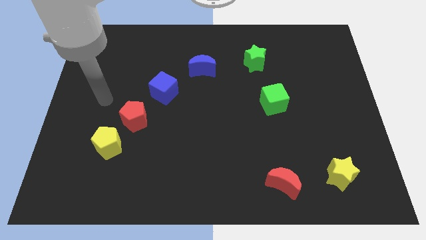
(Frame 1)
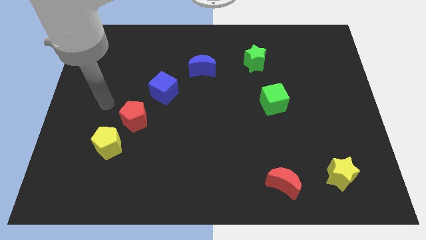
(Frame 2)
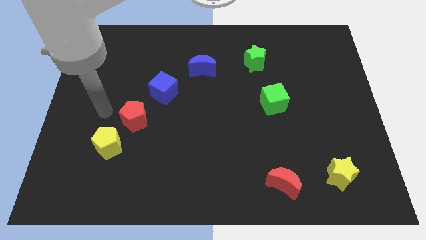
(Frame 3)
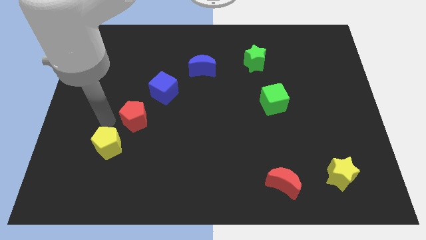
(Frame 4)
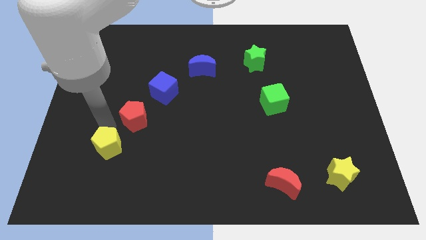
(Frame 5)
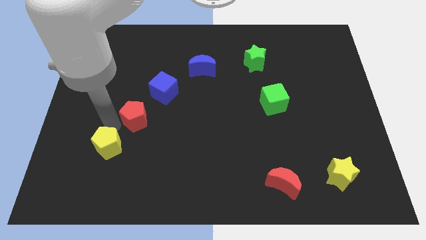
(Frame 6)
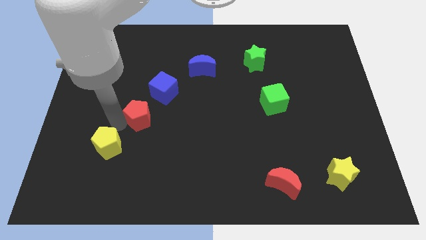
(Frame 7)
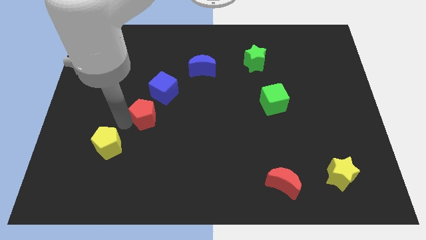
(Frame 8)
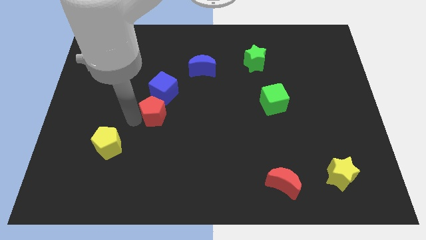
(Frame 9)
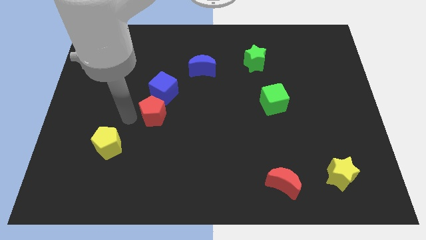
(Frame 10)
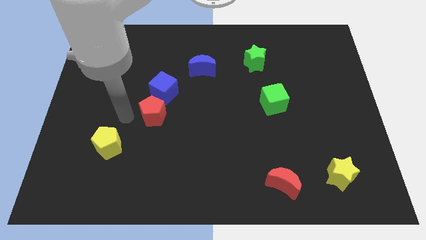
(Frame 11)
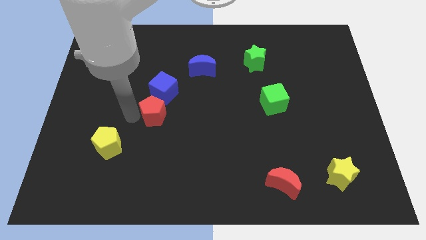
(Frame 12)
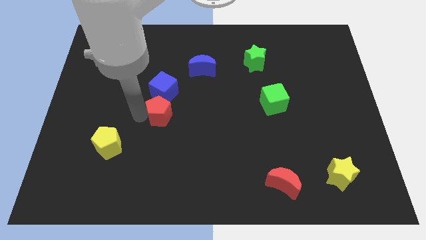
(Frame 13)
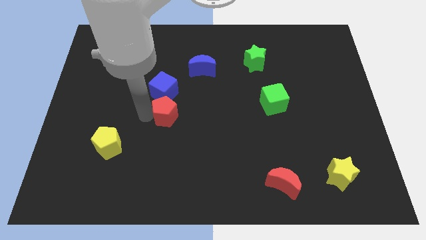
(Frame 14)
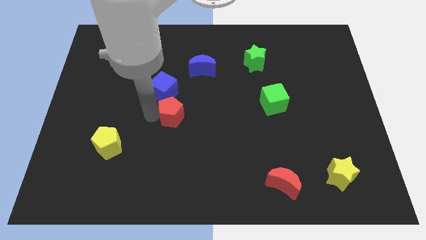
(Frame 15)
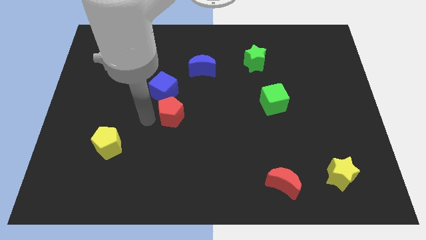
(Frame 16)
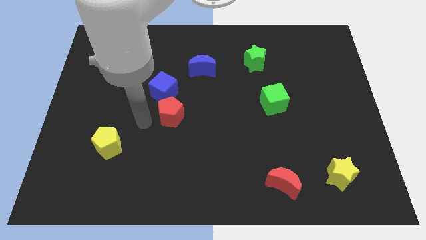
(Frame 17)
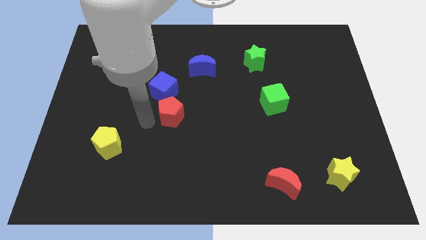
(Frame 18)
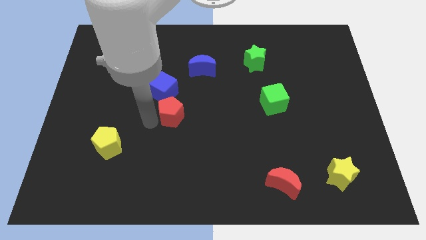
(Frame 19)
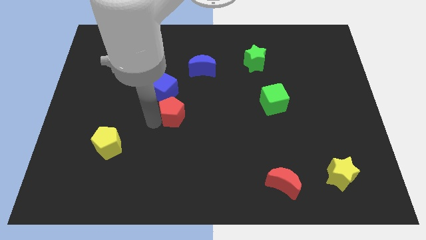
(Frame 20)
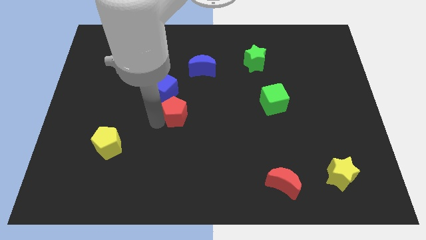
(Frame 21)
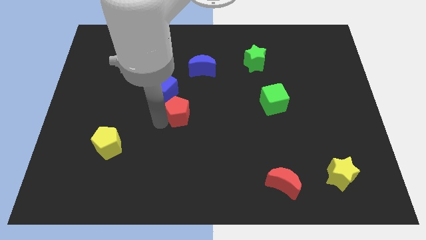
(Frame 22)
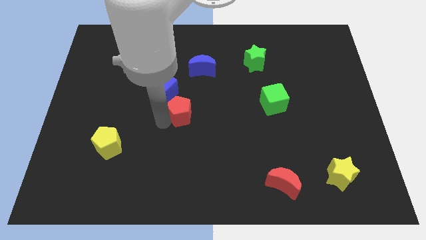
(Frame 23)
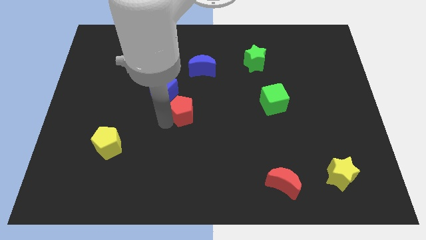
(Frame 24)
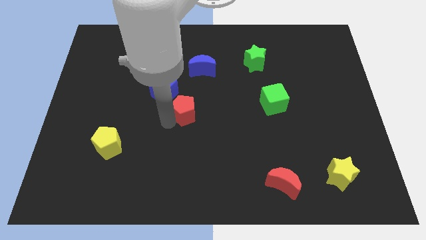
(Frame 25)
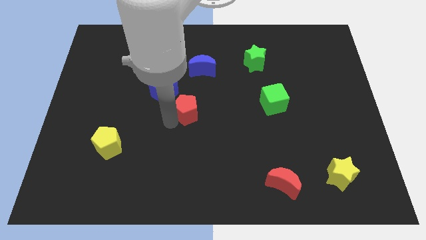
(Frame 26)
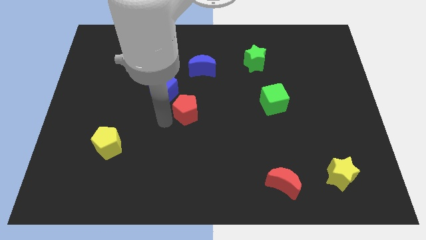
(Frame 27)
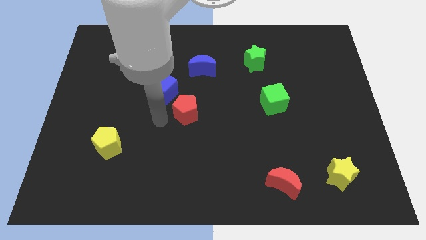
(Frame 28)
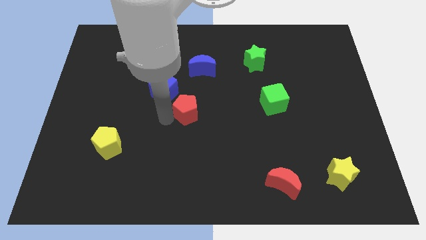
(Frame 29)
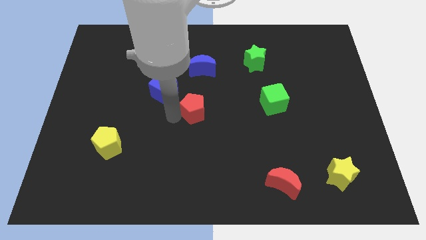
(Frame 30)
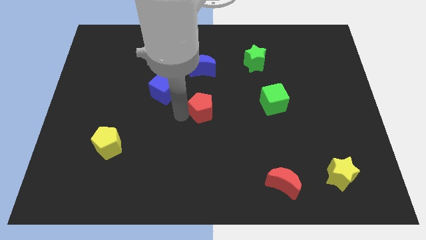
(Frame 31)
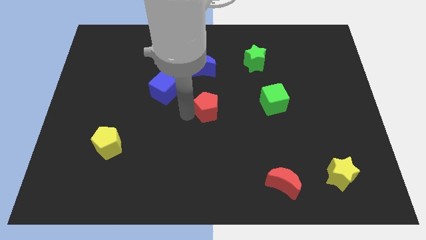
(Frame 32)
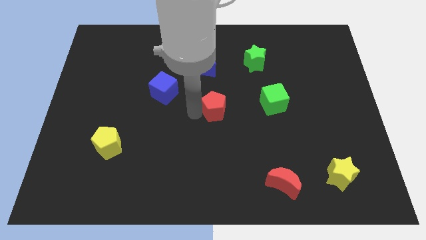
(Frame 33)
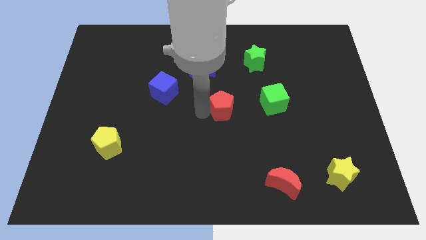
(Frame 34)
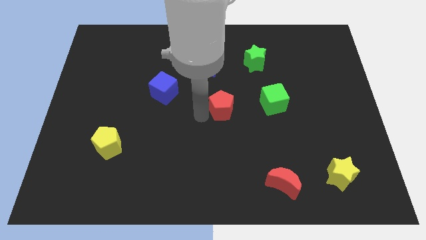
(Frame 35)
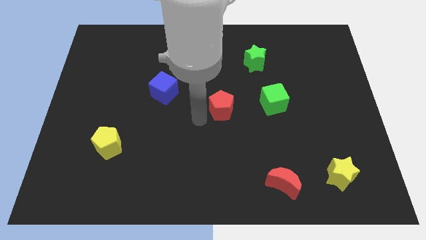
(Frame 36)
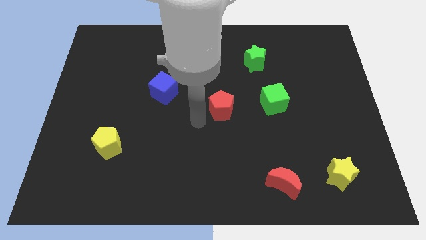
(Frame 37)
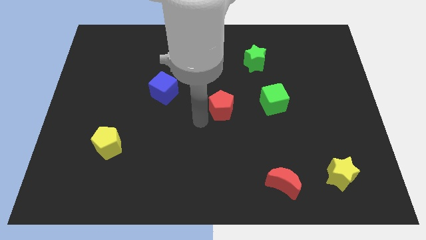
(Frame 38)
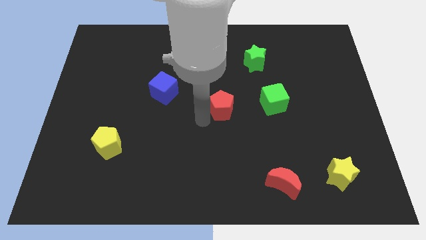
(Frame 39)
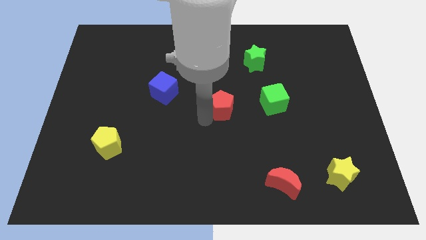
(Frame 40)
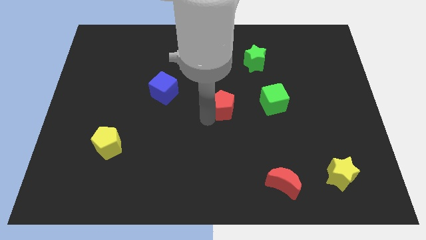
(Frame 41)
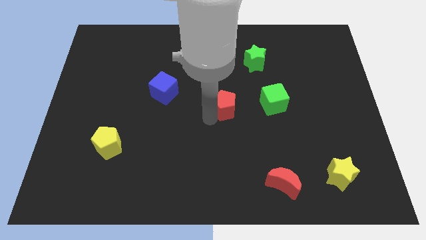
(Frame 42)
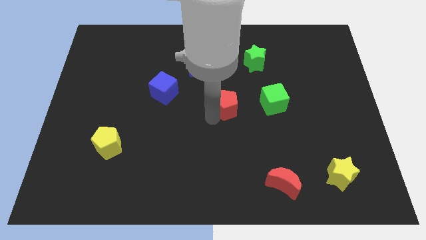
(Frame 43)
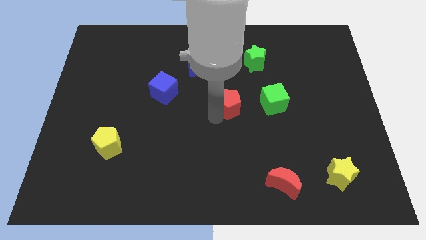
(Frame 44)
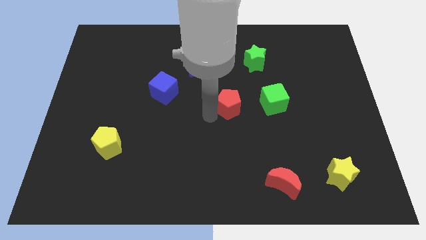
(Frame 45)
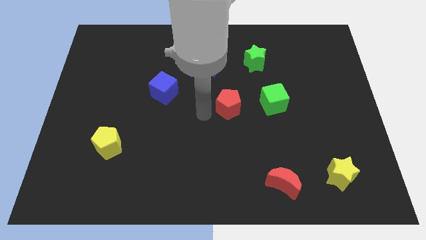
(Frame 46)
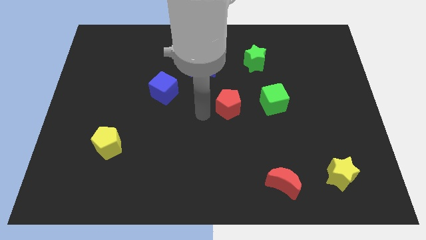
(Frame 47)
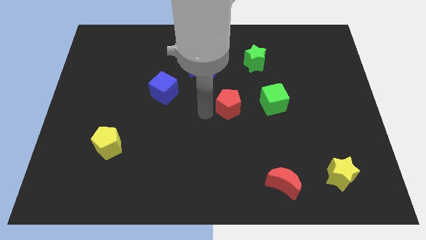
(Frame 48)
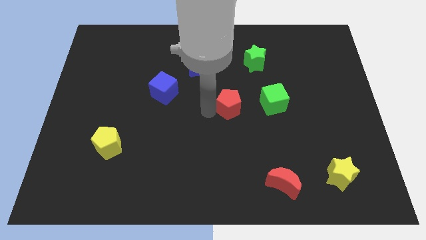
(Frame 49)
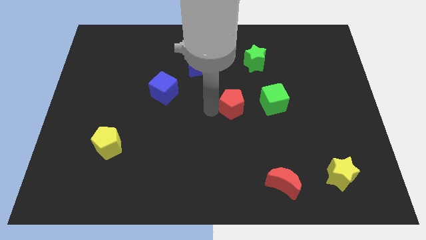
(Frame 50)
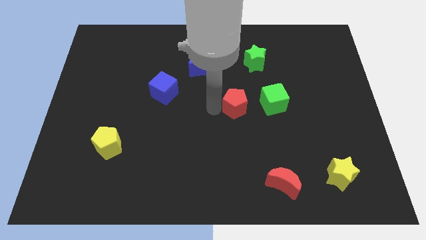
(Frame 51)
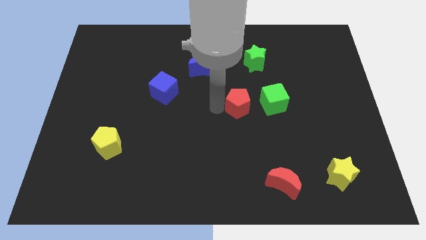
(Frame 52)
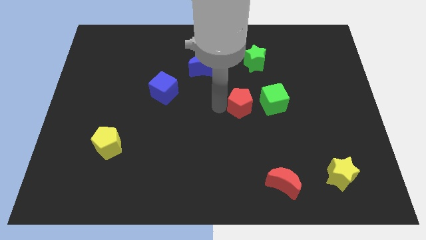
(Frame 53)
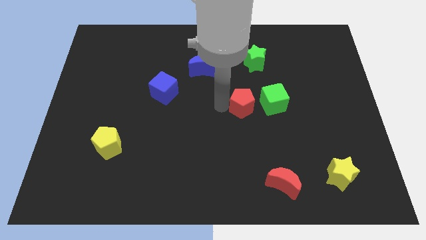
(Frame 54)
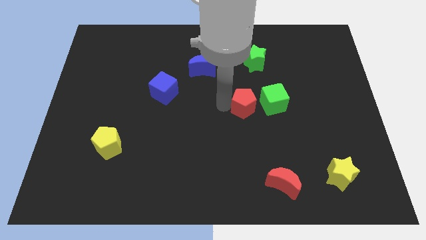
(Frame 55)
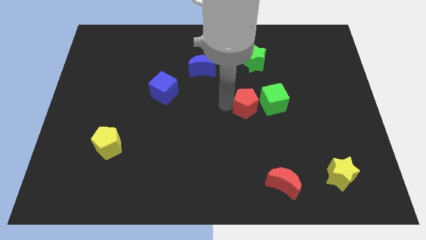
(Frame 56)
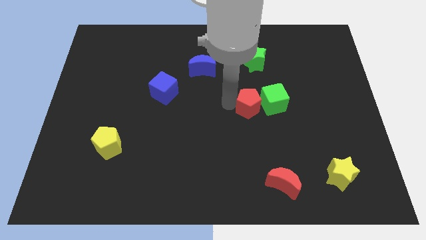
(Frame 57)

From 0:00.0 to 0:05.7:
slide the red pentagon close to the green cube

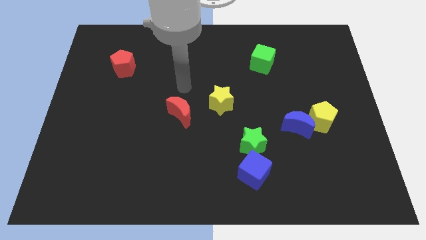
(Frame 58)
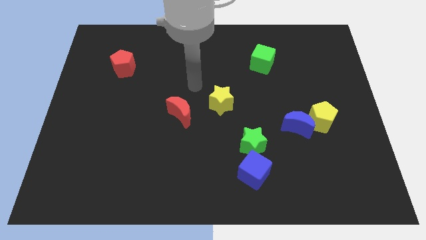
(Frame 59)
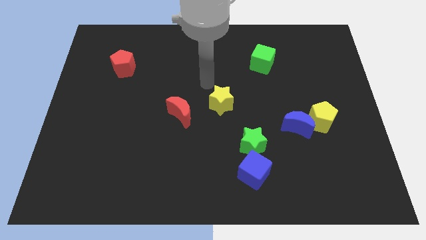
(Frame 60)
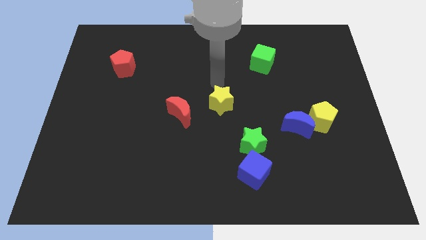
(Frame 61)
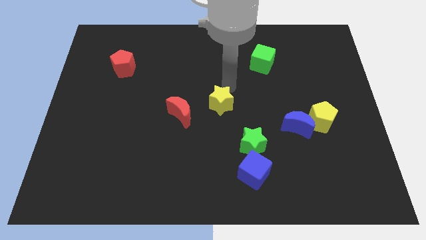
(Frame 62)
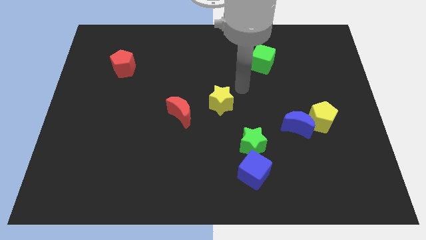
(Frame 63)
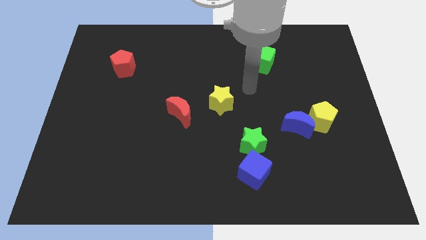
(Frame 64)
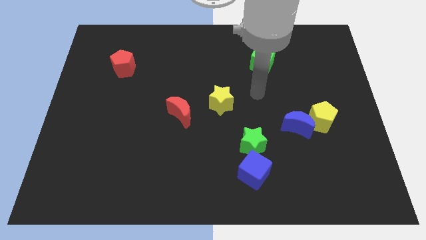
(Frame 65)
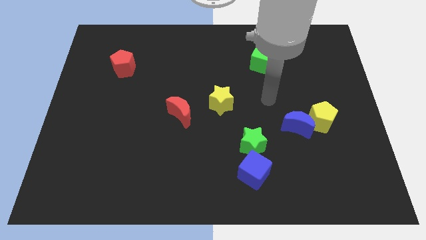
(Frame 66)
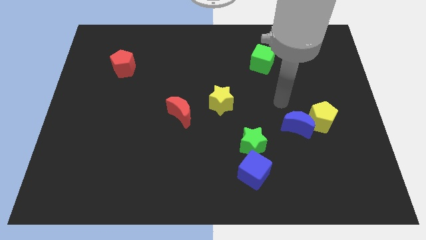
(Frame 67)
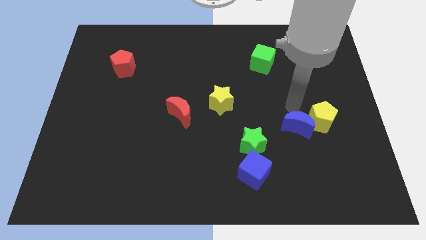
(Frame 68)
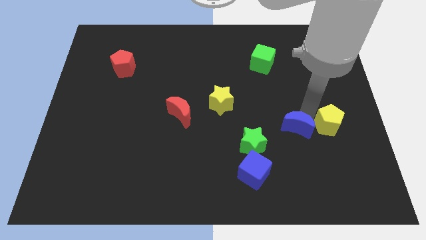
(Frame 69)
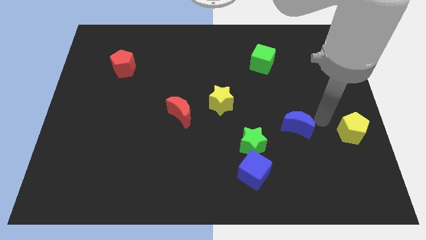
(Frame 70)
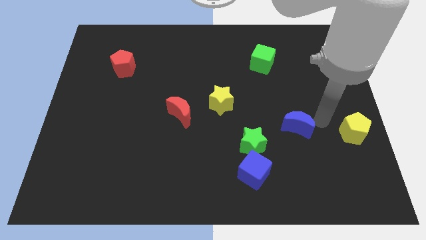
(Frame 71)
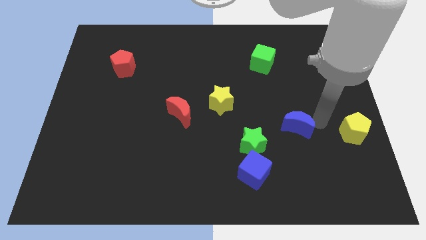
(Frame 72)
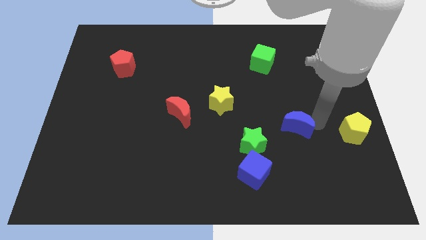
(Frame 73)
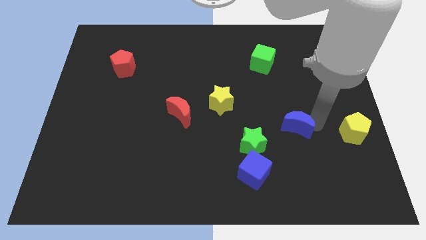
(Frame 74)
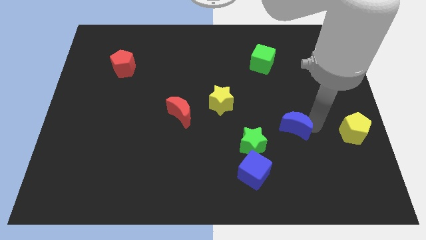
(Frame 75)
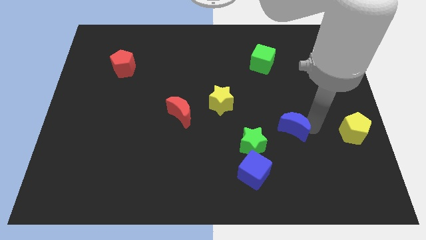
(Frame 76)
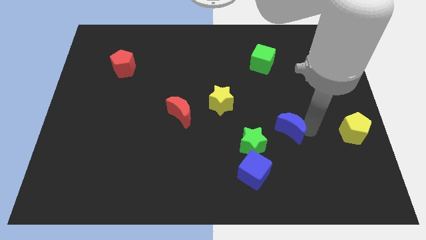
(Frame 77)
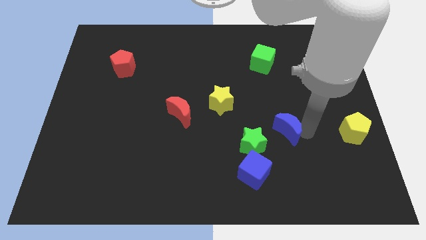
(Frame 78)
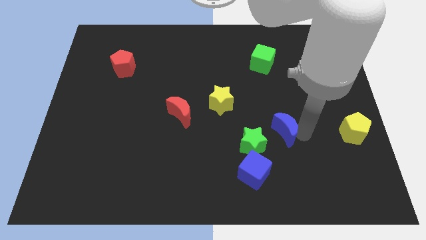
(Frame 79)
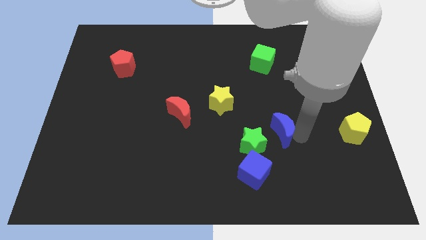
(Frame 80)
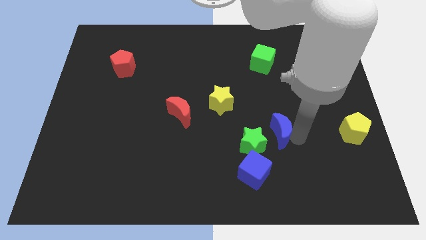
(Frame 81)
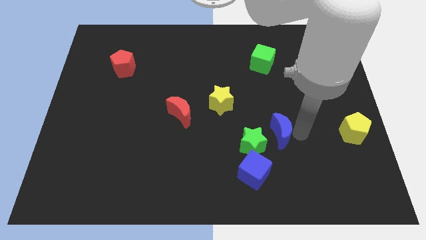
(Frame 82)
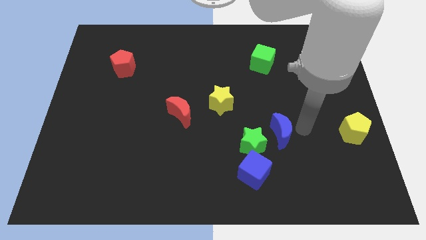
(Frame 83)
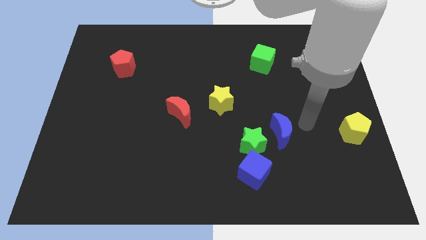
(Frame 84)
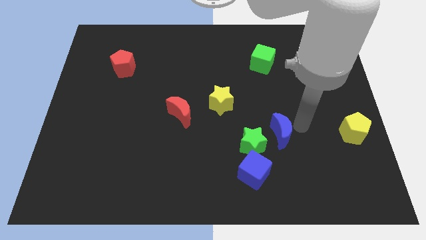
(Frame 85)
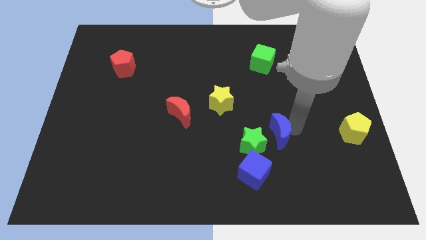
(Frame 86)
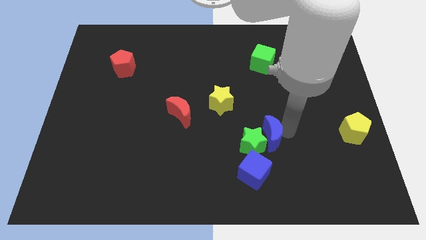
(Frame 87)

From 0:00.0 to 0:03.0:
push the blue moon to the green star
